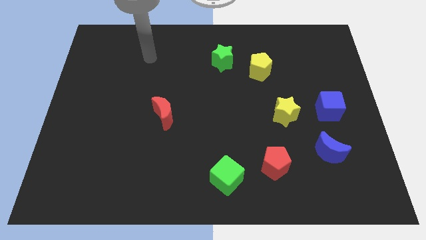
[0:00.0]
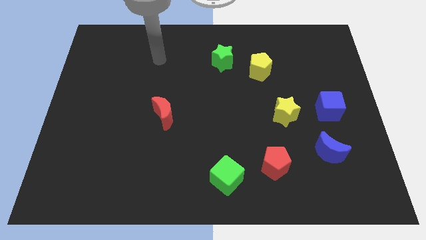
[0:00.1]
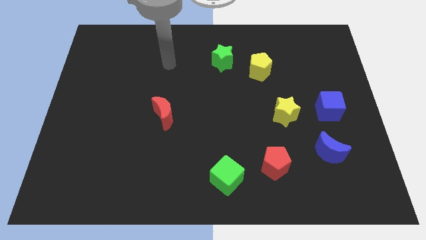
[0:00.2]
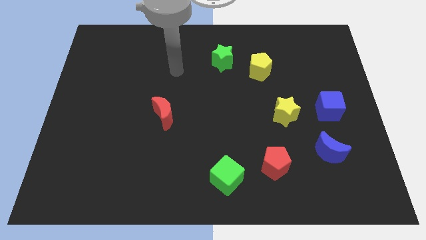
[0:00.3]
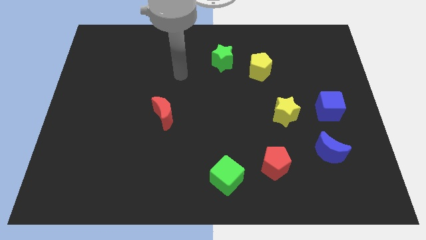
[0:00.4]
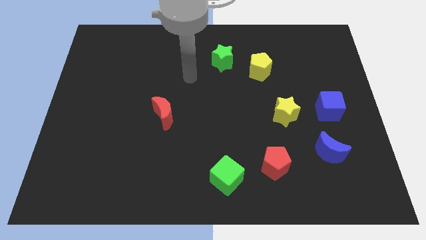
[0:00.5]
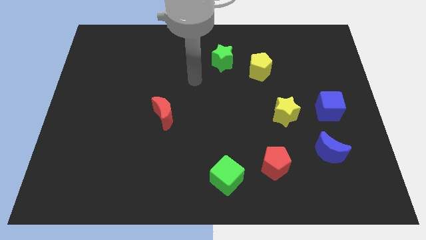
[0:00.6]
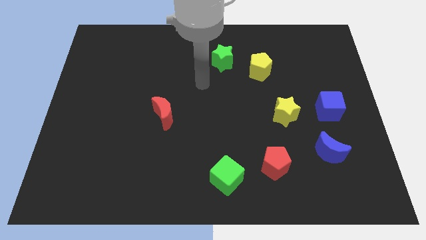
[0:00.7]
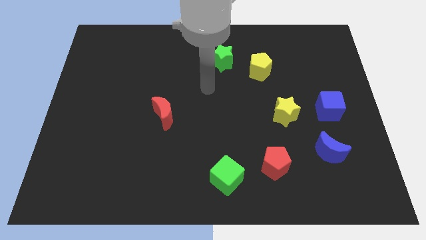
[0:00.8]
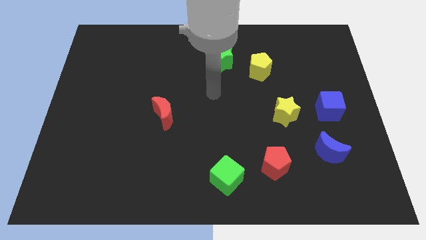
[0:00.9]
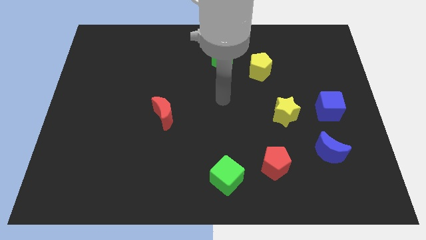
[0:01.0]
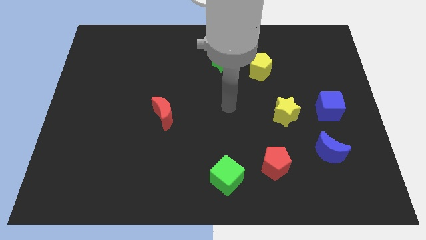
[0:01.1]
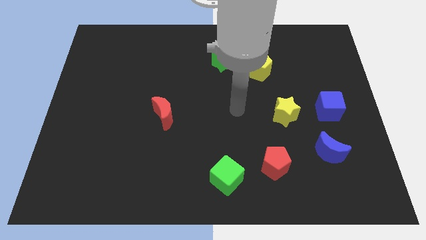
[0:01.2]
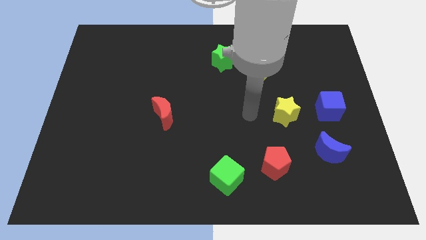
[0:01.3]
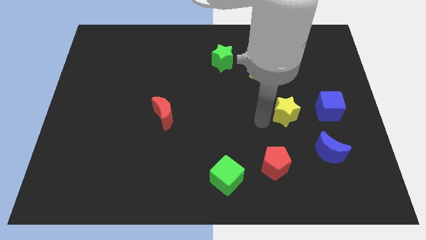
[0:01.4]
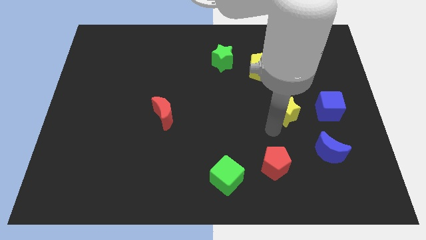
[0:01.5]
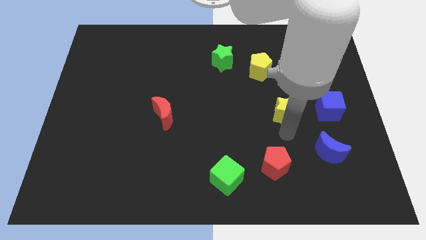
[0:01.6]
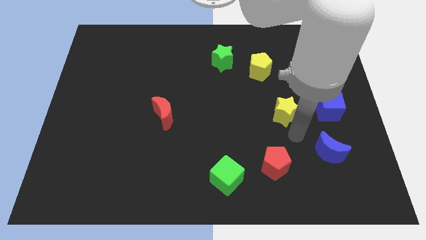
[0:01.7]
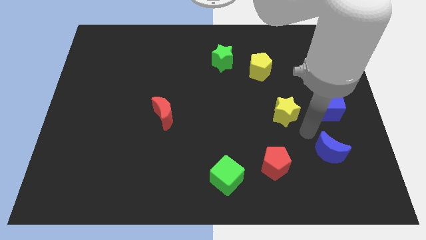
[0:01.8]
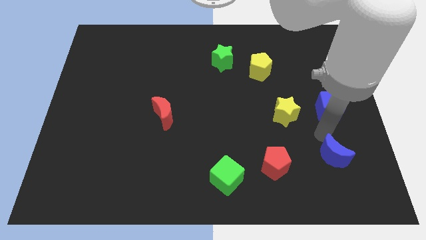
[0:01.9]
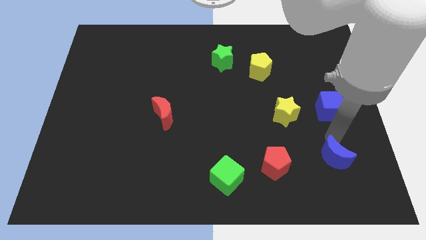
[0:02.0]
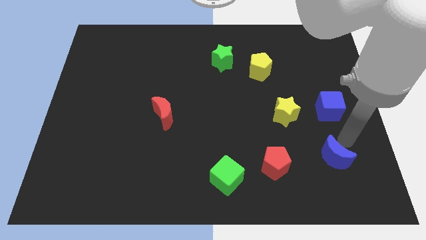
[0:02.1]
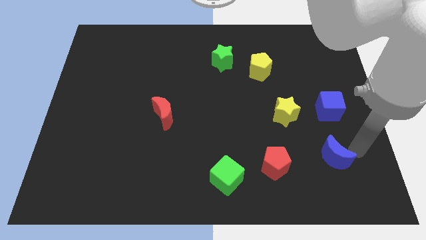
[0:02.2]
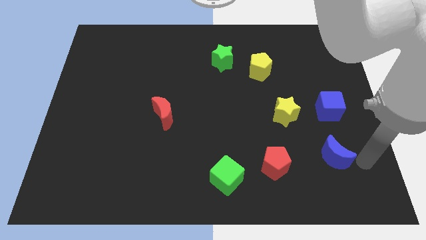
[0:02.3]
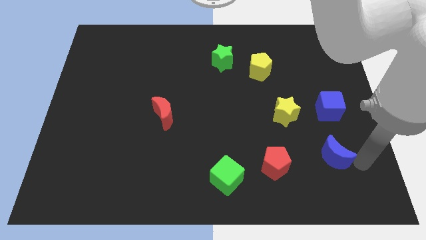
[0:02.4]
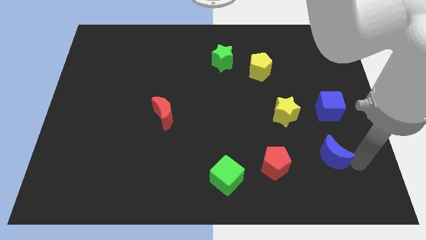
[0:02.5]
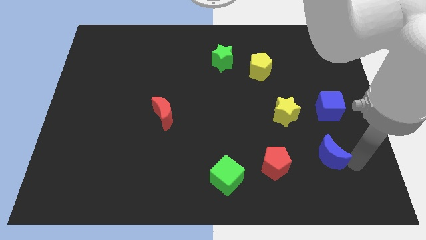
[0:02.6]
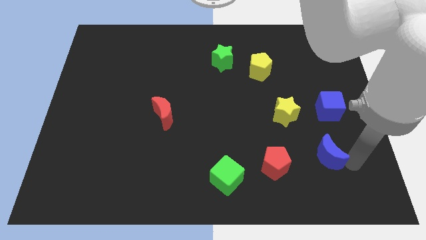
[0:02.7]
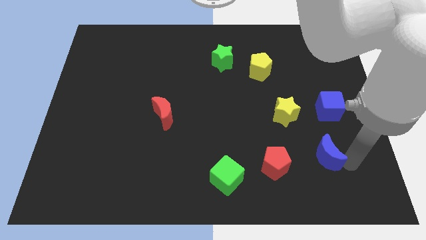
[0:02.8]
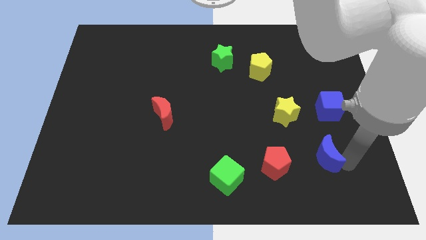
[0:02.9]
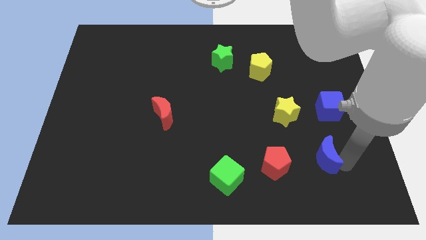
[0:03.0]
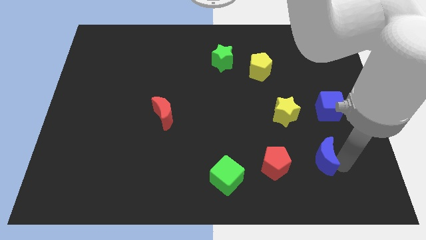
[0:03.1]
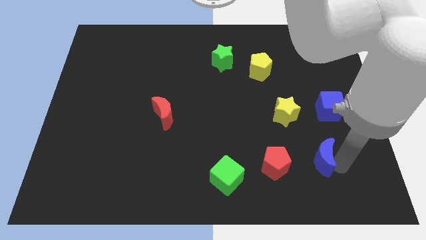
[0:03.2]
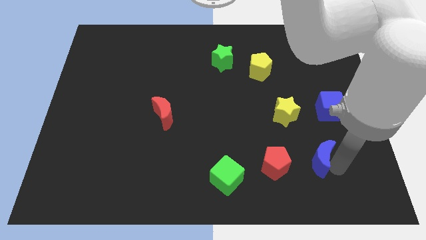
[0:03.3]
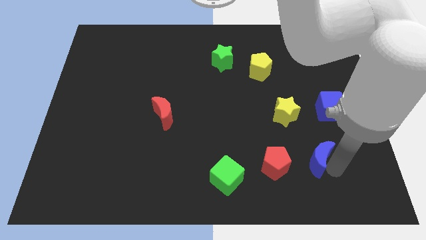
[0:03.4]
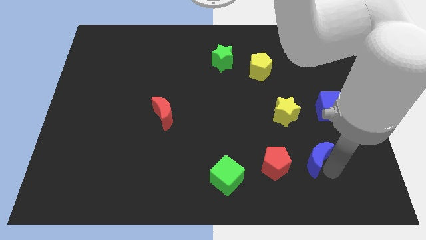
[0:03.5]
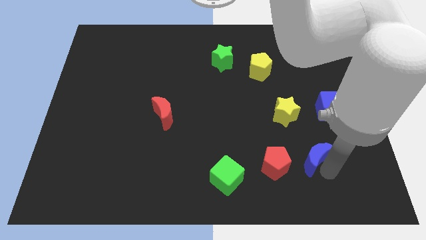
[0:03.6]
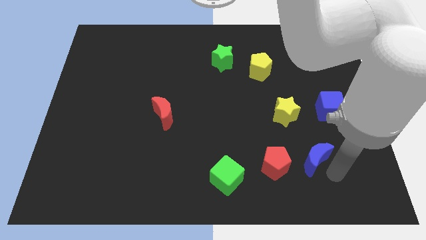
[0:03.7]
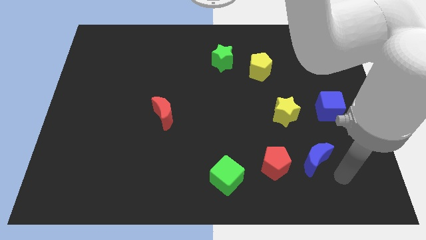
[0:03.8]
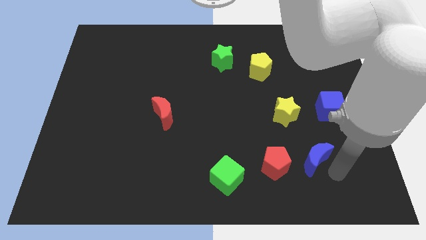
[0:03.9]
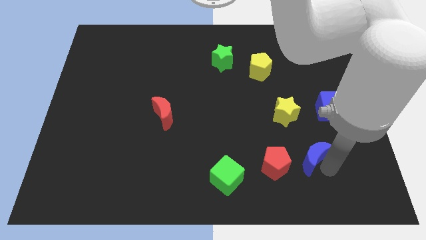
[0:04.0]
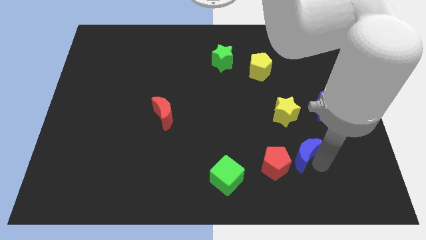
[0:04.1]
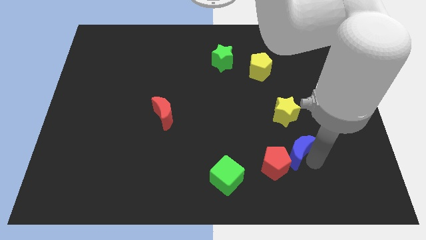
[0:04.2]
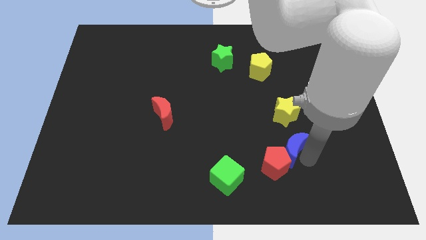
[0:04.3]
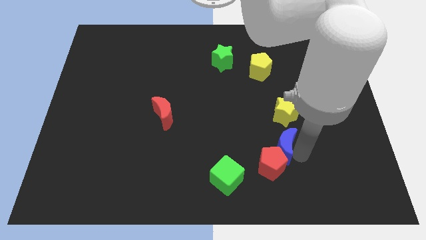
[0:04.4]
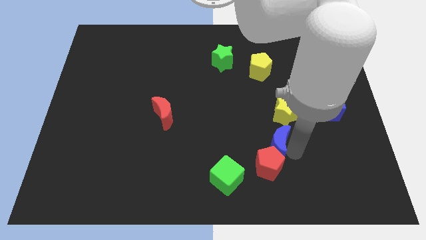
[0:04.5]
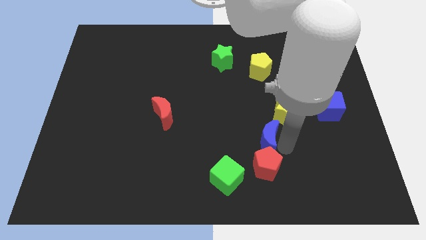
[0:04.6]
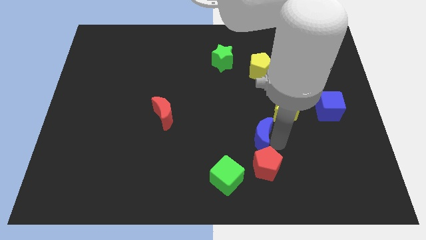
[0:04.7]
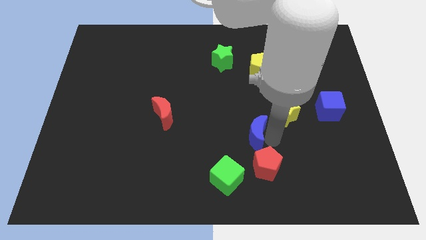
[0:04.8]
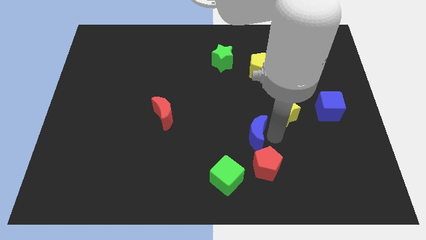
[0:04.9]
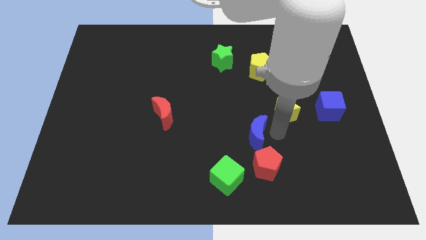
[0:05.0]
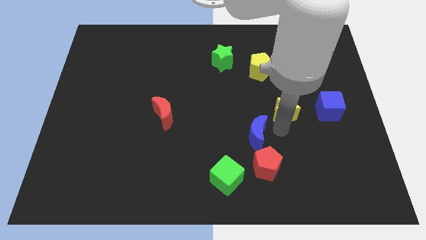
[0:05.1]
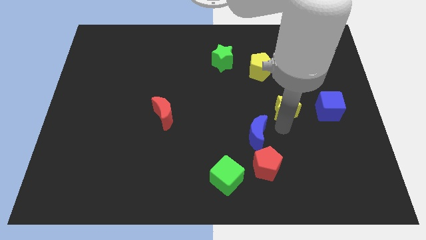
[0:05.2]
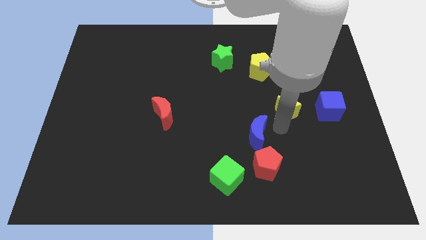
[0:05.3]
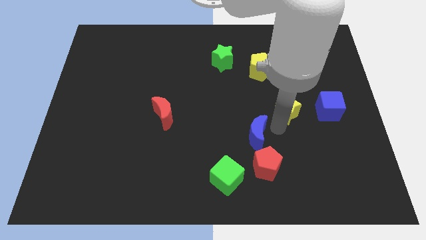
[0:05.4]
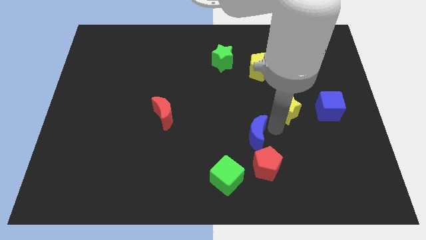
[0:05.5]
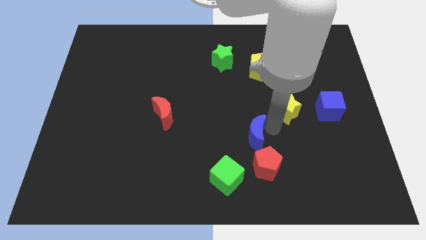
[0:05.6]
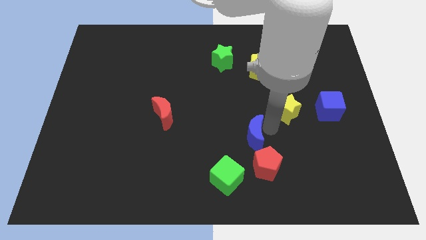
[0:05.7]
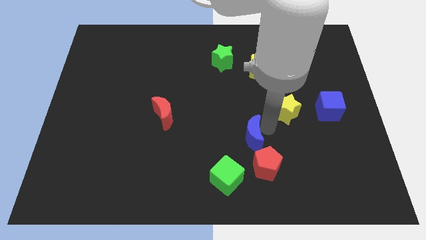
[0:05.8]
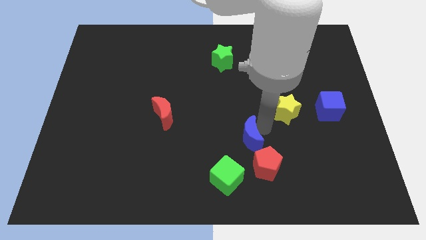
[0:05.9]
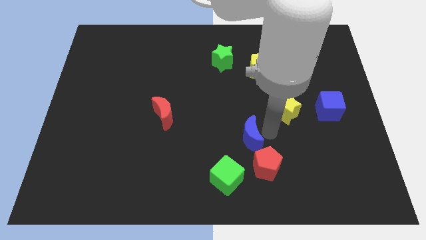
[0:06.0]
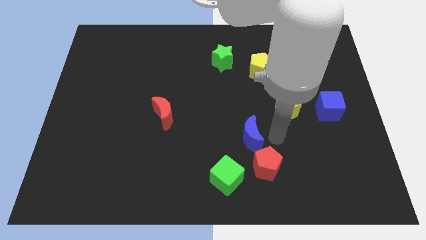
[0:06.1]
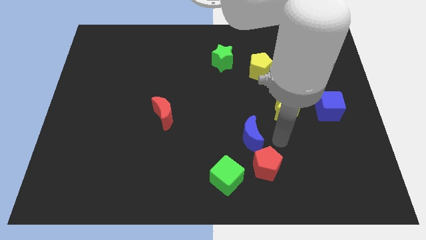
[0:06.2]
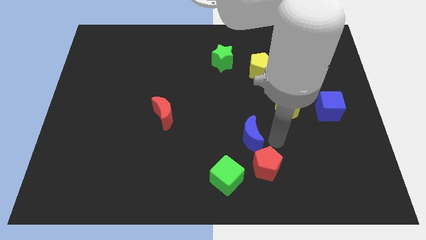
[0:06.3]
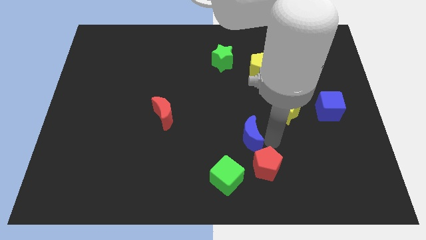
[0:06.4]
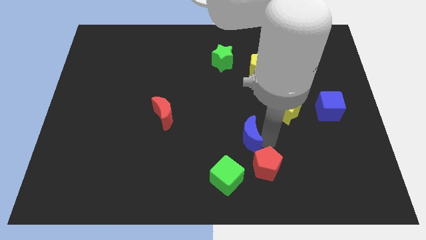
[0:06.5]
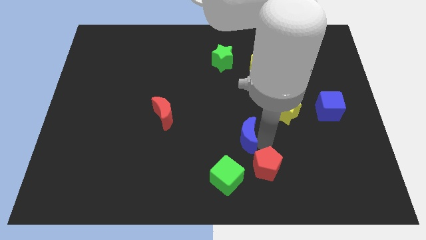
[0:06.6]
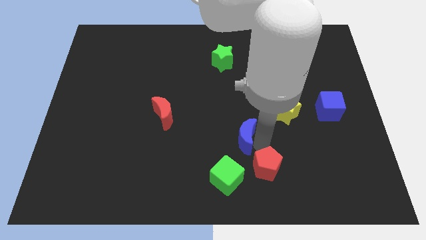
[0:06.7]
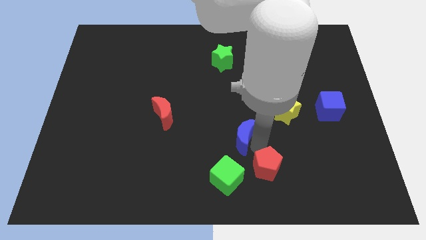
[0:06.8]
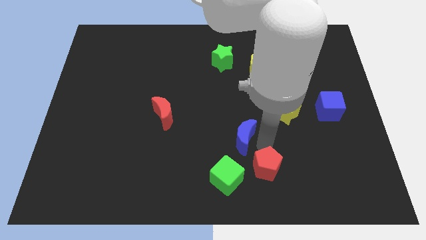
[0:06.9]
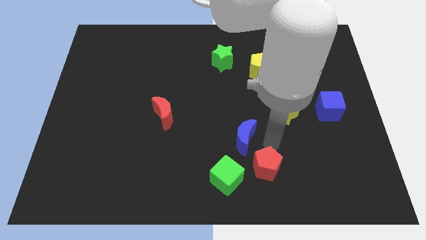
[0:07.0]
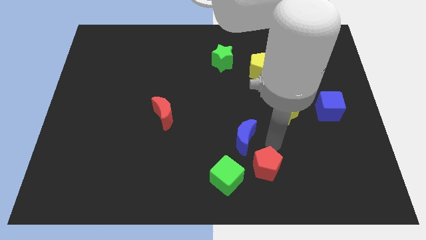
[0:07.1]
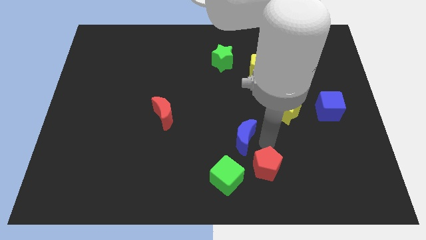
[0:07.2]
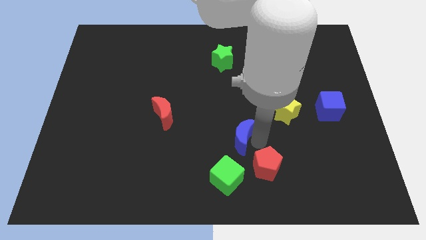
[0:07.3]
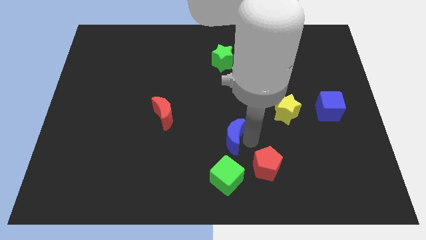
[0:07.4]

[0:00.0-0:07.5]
slide the blue moon left

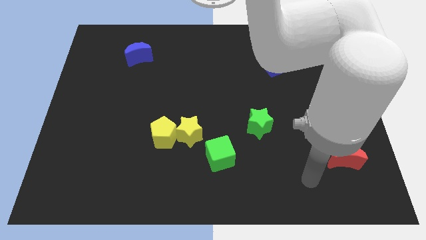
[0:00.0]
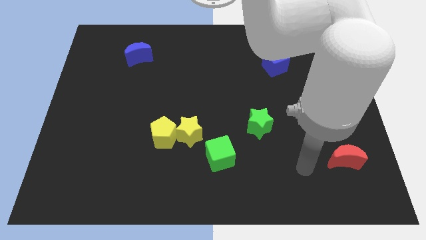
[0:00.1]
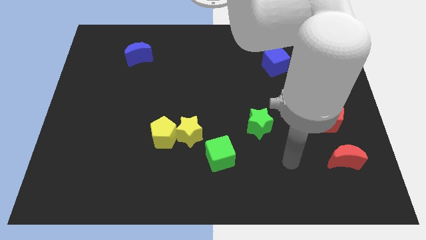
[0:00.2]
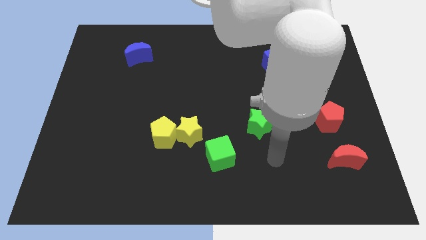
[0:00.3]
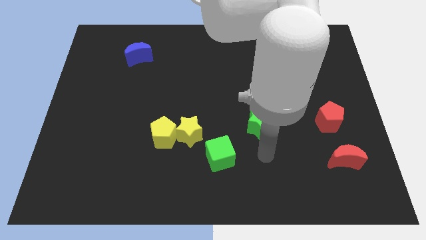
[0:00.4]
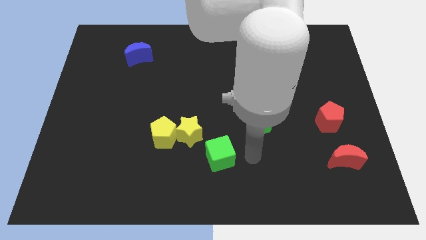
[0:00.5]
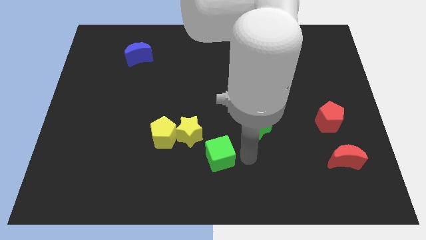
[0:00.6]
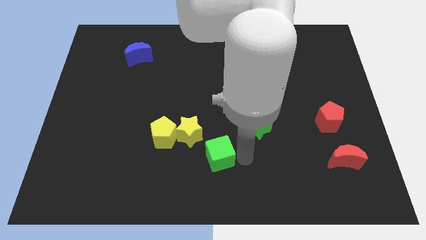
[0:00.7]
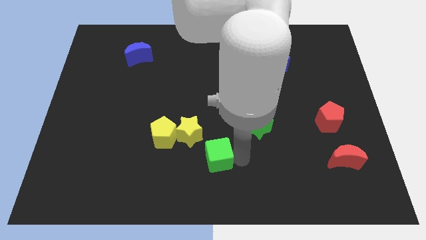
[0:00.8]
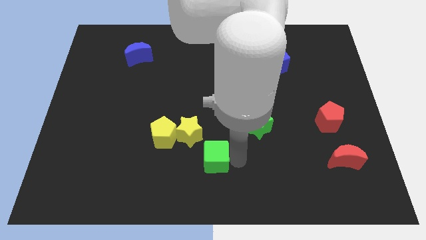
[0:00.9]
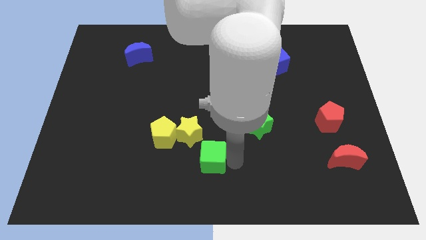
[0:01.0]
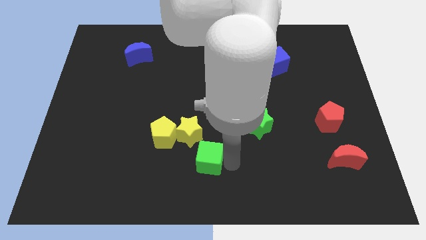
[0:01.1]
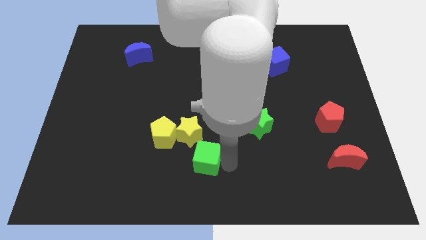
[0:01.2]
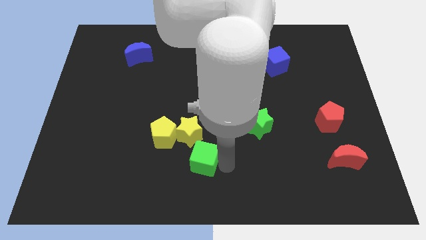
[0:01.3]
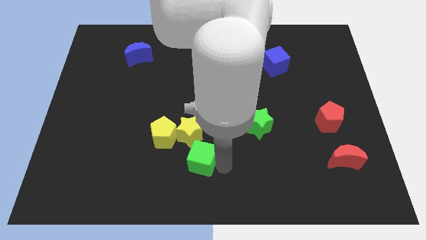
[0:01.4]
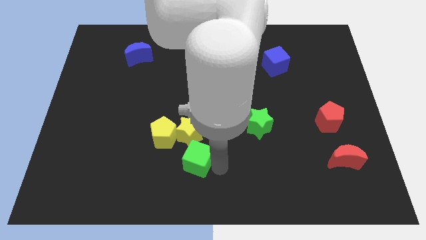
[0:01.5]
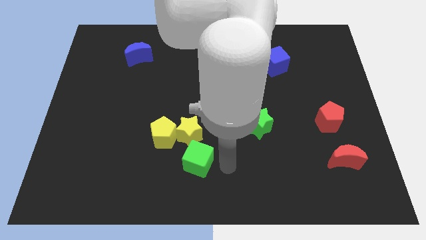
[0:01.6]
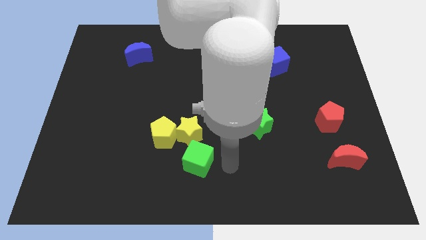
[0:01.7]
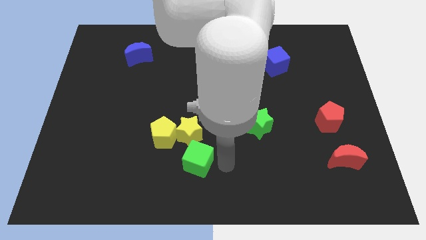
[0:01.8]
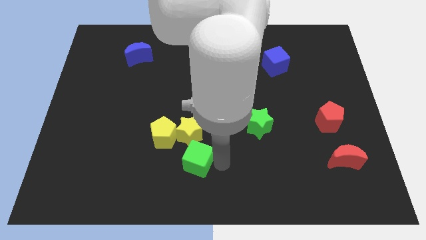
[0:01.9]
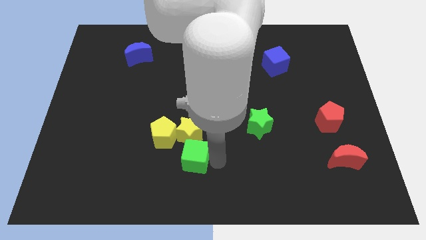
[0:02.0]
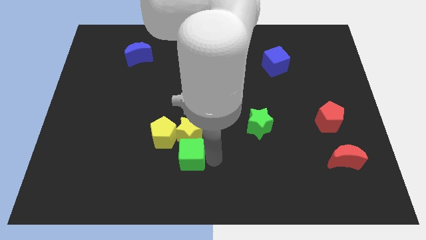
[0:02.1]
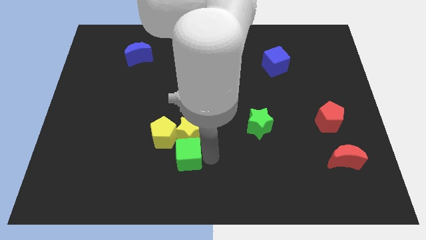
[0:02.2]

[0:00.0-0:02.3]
move the green cube left somewhat
